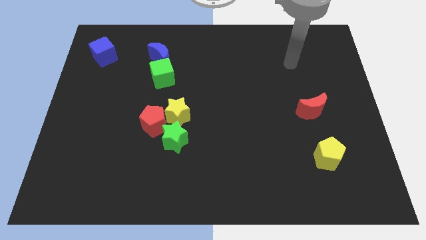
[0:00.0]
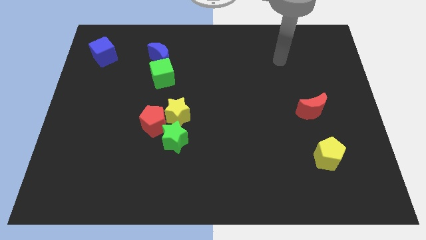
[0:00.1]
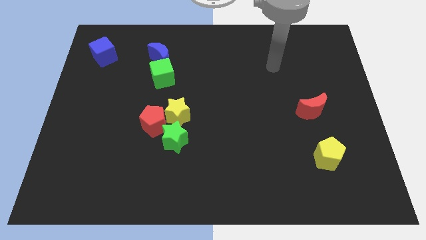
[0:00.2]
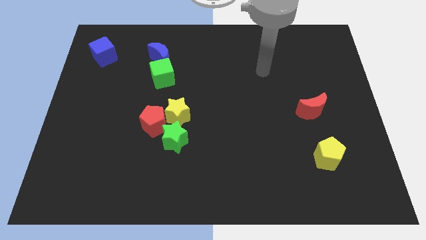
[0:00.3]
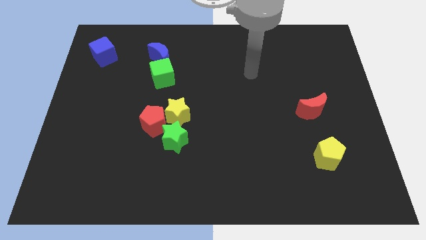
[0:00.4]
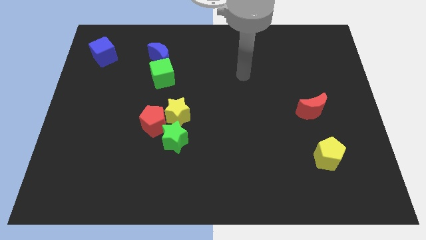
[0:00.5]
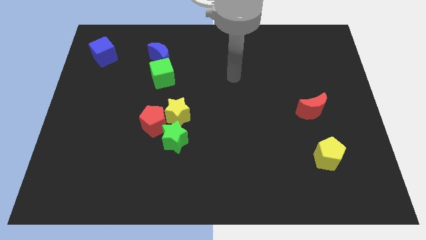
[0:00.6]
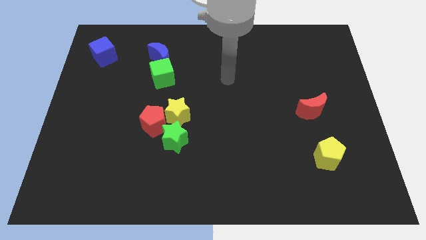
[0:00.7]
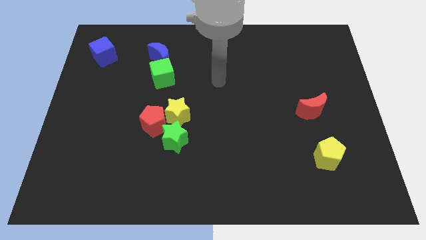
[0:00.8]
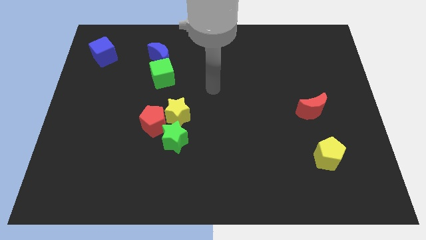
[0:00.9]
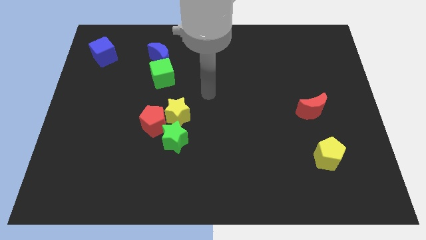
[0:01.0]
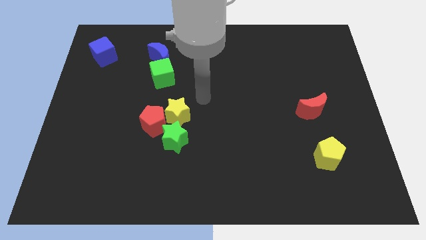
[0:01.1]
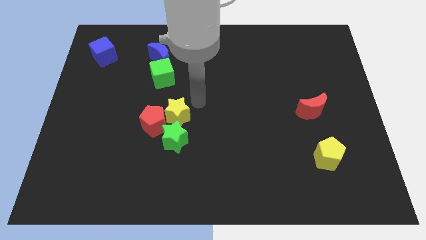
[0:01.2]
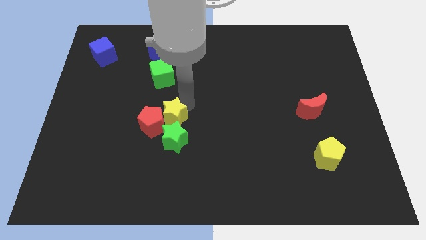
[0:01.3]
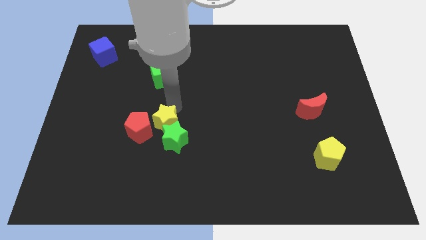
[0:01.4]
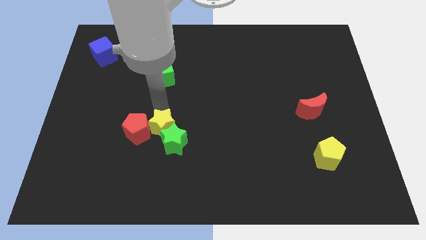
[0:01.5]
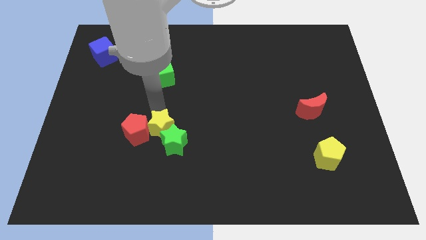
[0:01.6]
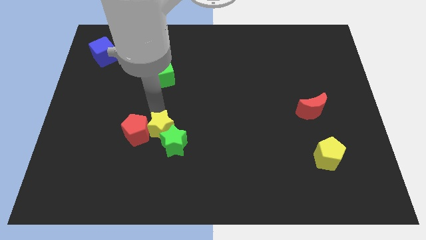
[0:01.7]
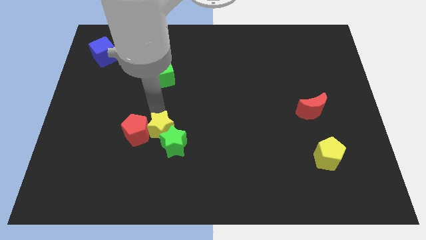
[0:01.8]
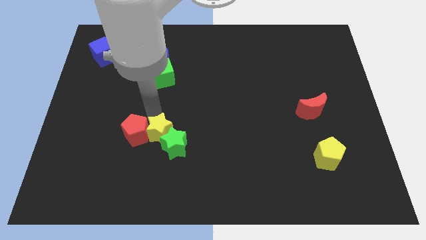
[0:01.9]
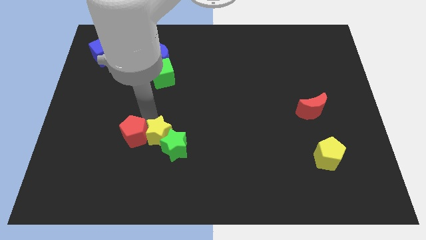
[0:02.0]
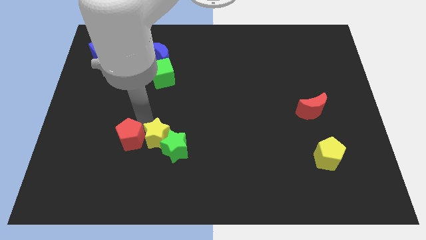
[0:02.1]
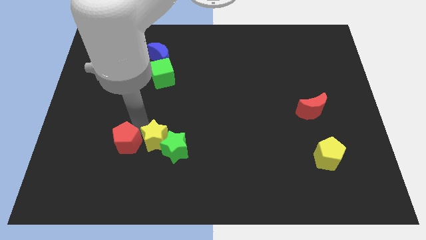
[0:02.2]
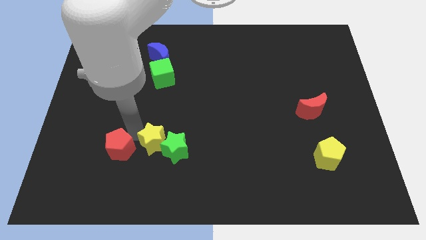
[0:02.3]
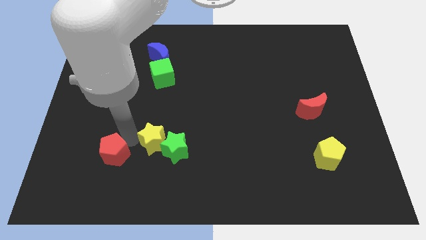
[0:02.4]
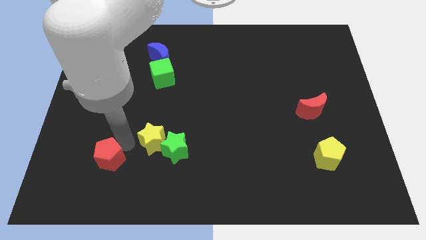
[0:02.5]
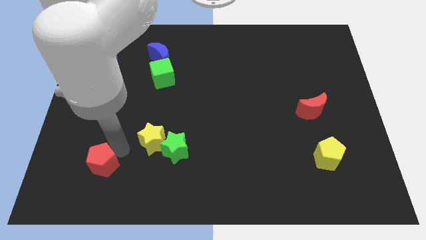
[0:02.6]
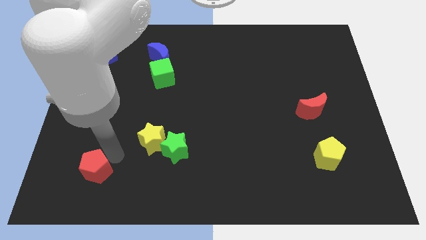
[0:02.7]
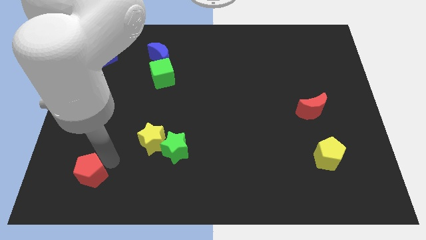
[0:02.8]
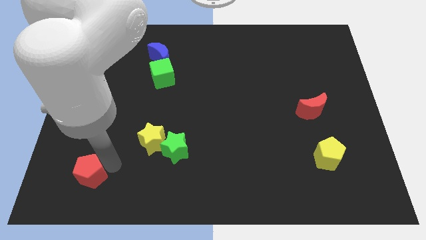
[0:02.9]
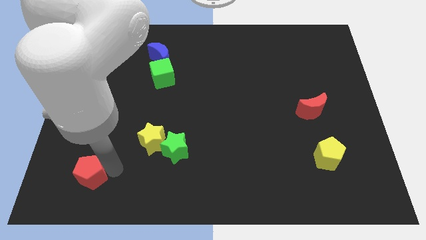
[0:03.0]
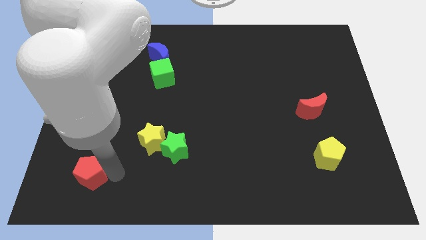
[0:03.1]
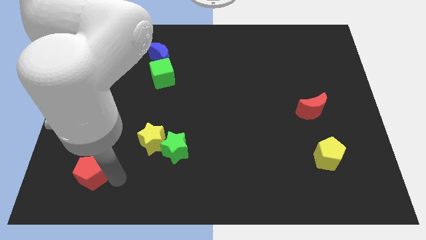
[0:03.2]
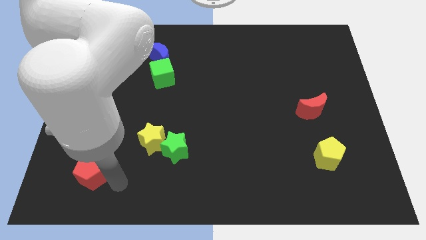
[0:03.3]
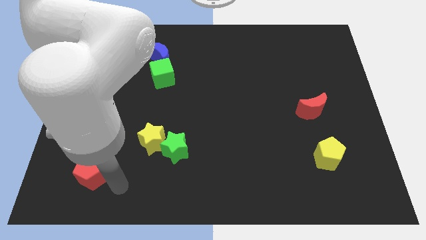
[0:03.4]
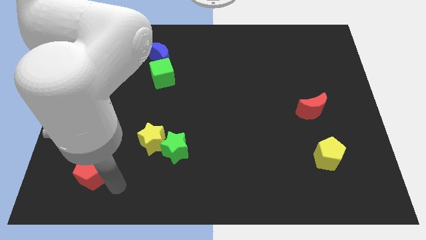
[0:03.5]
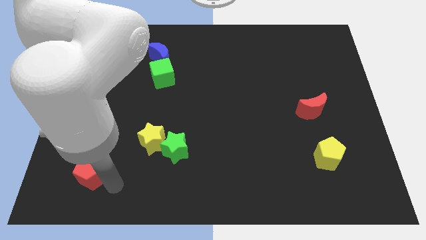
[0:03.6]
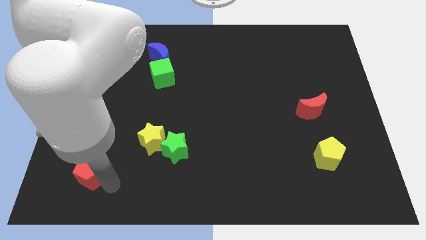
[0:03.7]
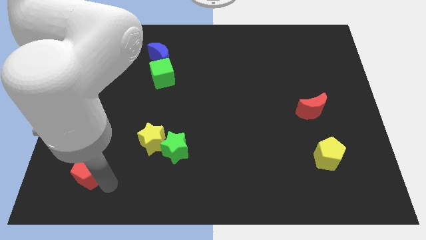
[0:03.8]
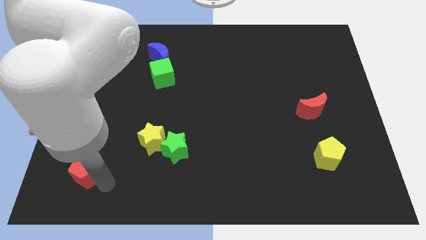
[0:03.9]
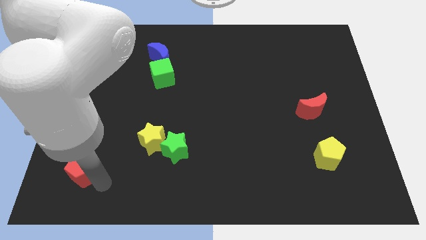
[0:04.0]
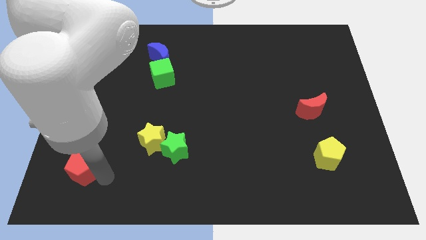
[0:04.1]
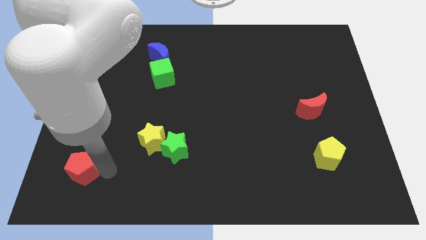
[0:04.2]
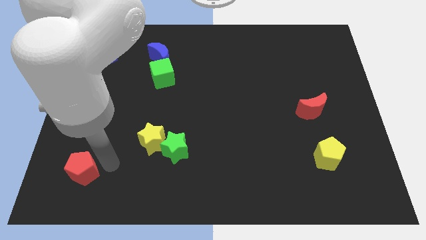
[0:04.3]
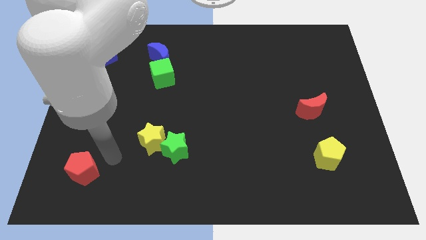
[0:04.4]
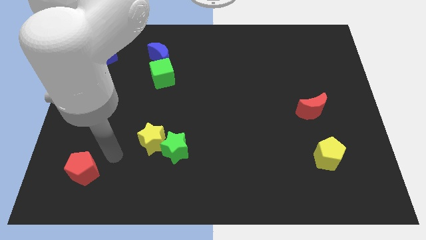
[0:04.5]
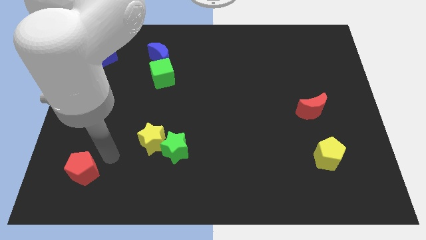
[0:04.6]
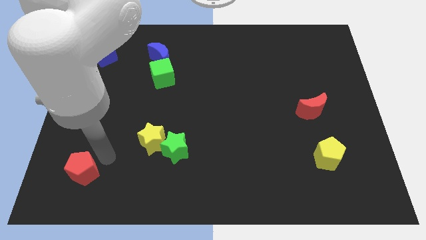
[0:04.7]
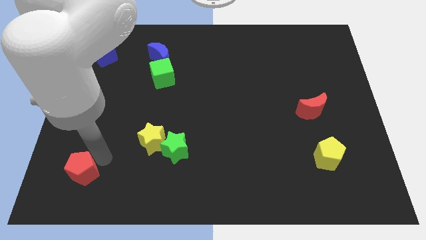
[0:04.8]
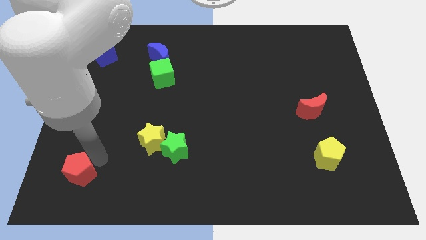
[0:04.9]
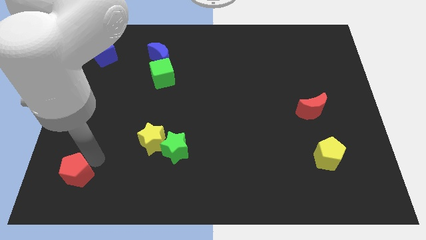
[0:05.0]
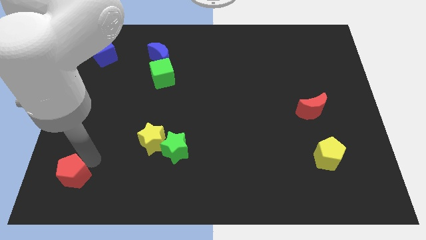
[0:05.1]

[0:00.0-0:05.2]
put the red pentagon to the bottom left corner

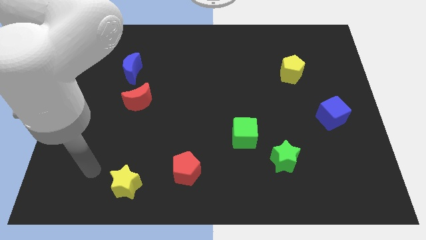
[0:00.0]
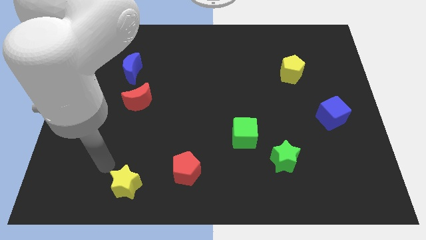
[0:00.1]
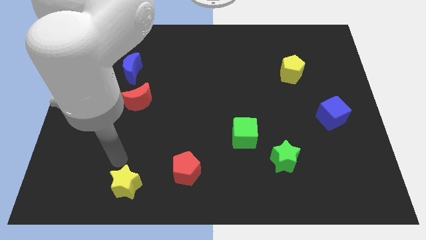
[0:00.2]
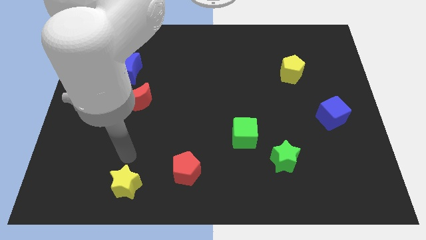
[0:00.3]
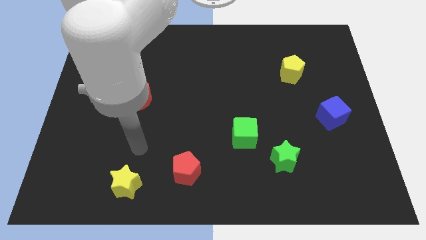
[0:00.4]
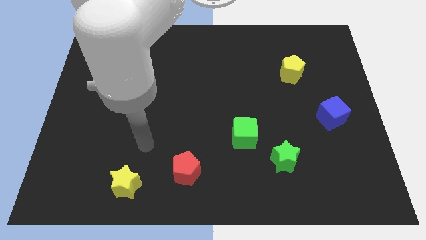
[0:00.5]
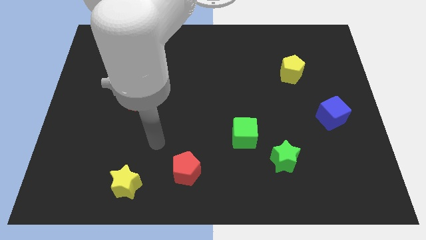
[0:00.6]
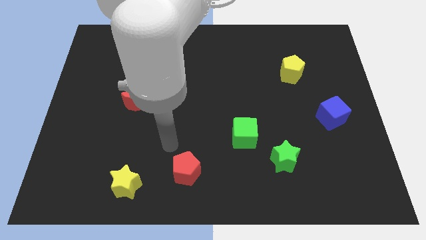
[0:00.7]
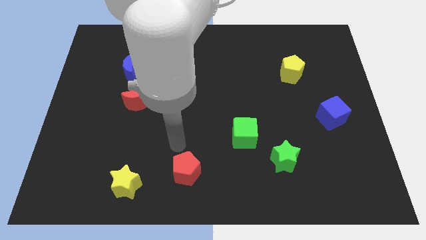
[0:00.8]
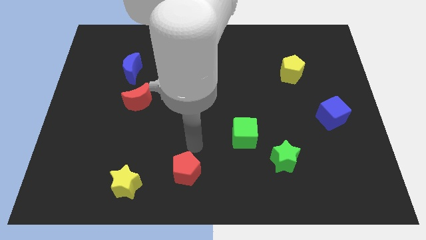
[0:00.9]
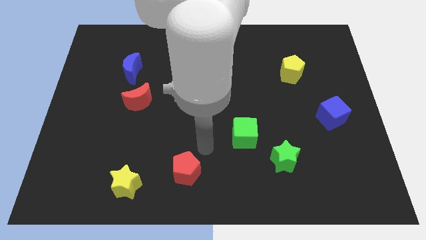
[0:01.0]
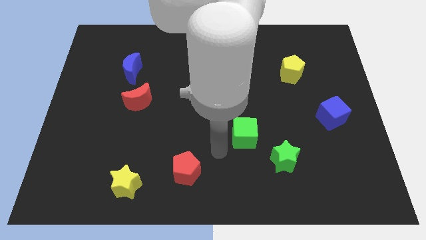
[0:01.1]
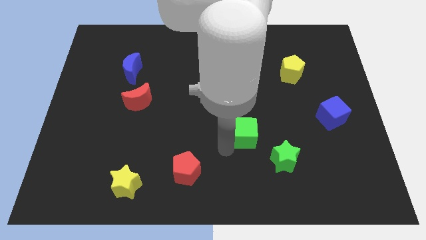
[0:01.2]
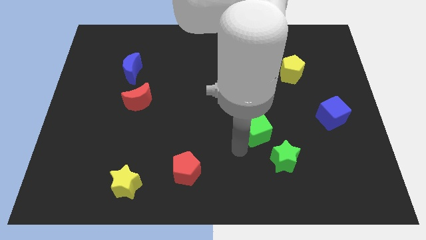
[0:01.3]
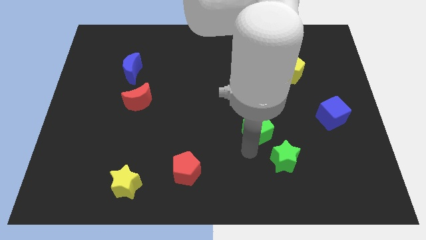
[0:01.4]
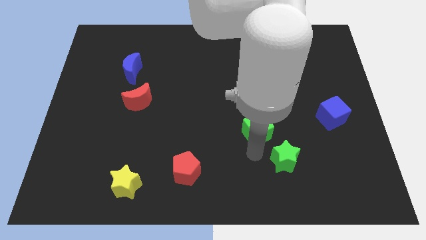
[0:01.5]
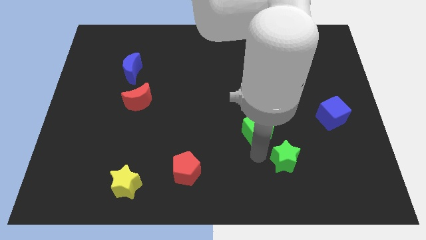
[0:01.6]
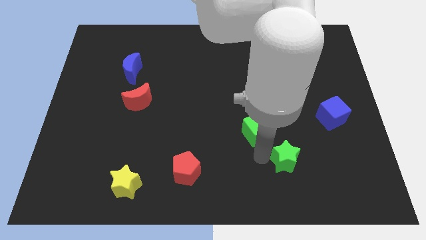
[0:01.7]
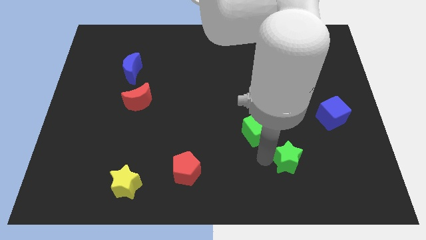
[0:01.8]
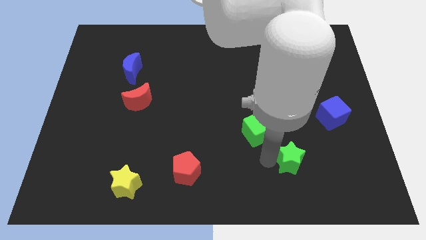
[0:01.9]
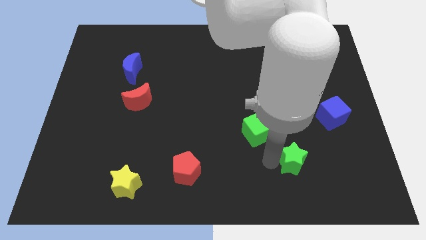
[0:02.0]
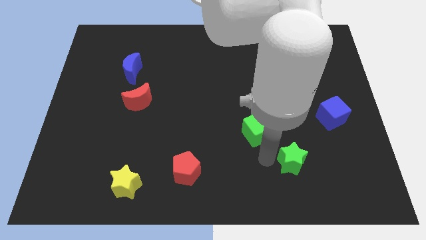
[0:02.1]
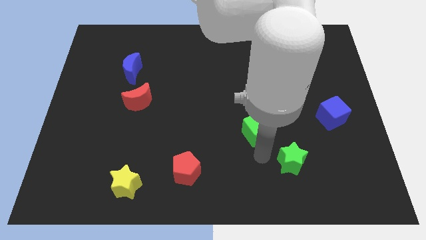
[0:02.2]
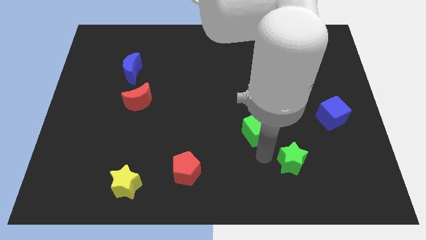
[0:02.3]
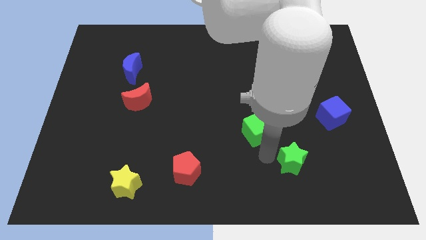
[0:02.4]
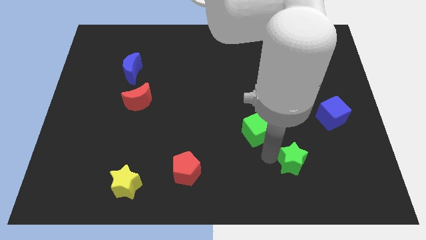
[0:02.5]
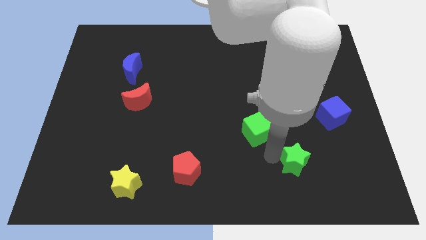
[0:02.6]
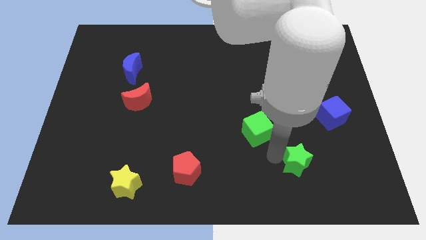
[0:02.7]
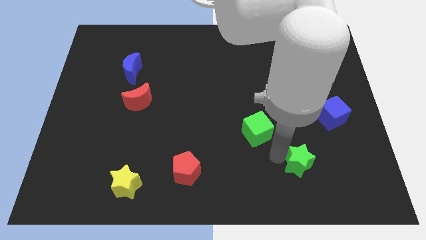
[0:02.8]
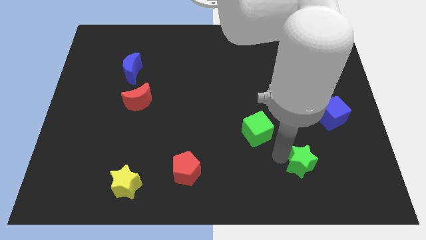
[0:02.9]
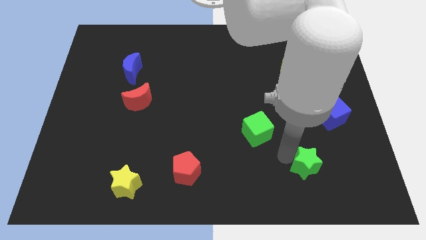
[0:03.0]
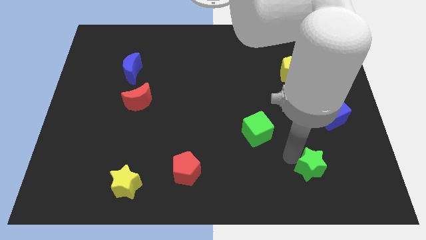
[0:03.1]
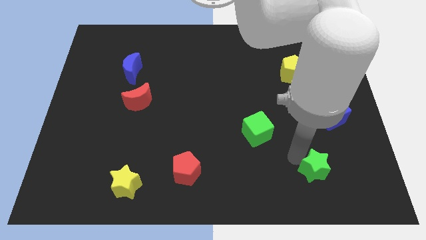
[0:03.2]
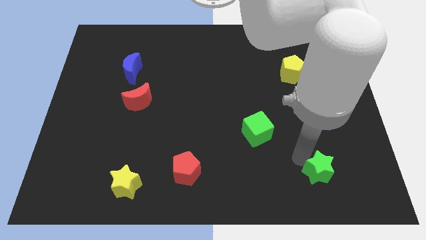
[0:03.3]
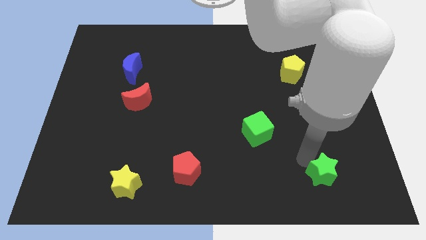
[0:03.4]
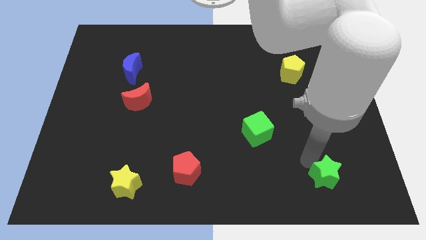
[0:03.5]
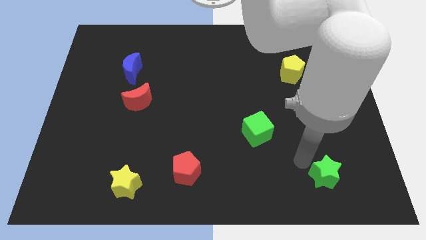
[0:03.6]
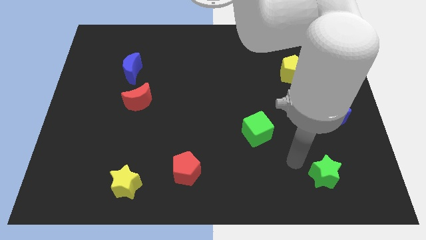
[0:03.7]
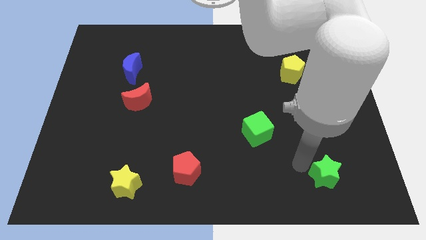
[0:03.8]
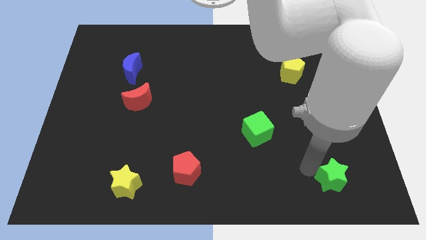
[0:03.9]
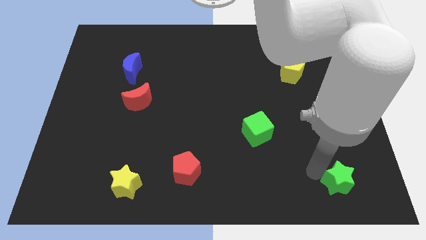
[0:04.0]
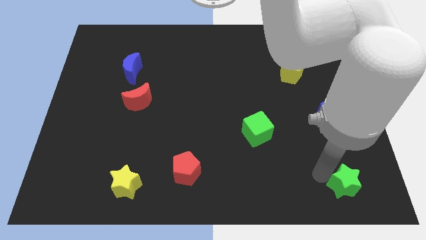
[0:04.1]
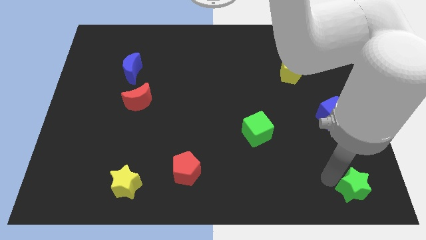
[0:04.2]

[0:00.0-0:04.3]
move the green star to the bottom right
